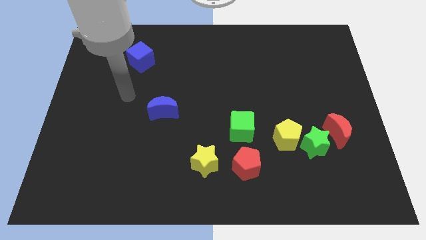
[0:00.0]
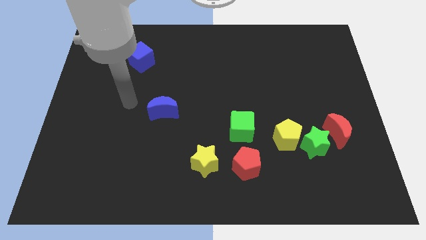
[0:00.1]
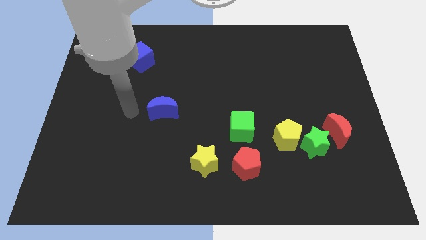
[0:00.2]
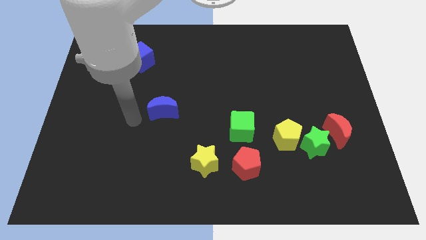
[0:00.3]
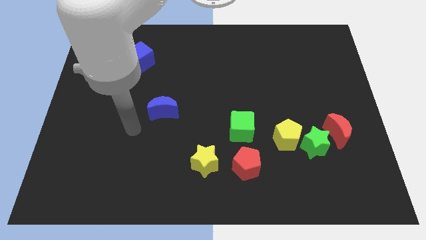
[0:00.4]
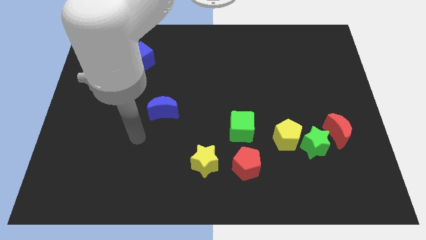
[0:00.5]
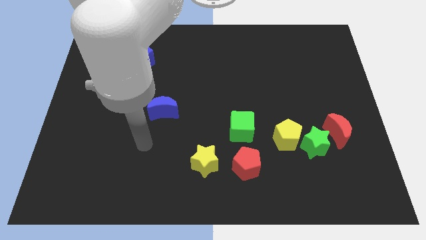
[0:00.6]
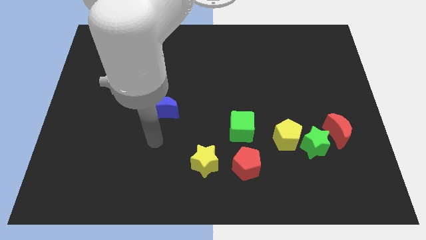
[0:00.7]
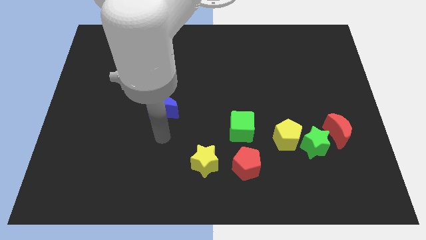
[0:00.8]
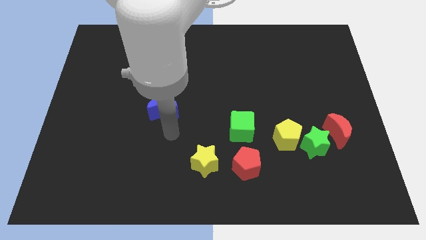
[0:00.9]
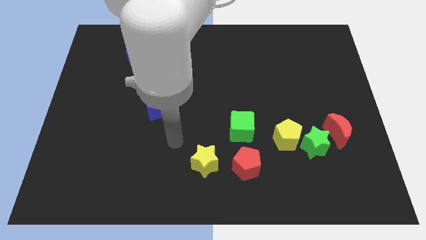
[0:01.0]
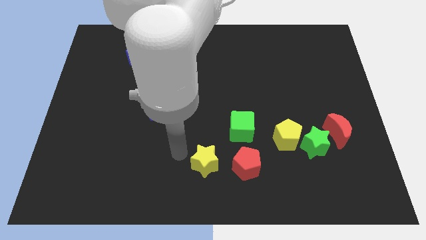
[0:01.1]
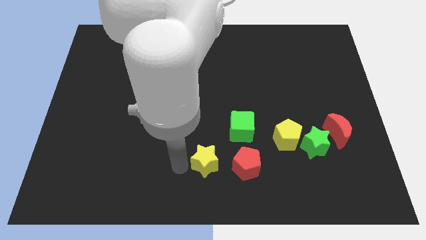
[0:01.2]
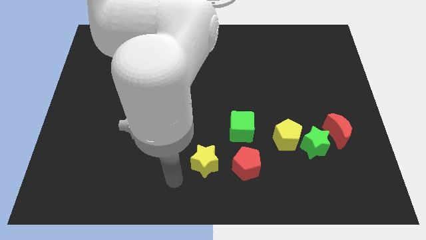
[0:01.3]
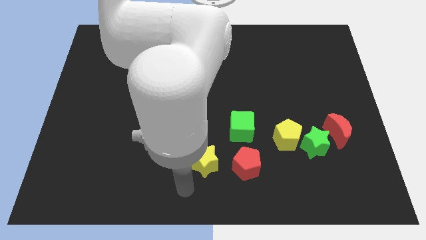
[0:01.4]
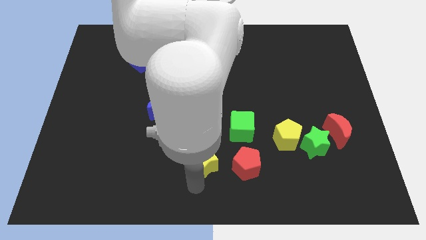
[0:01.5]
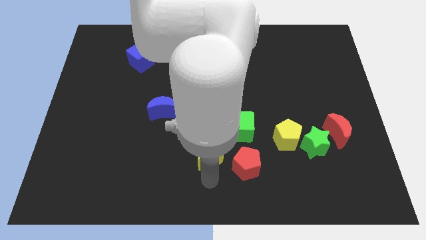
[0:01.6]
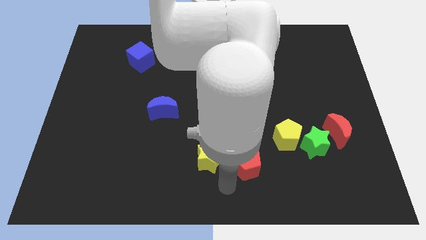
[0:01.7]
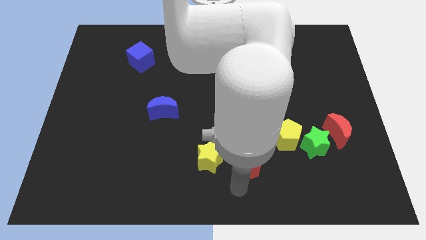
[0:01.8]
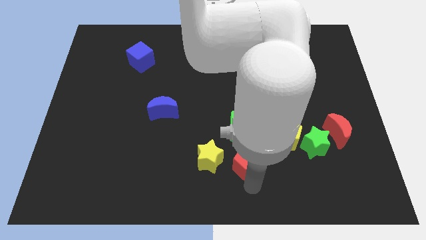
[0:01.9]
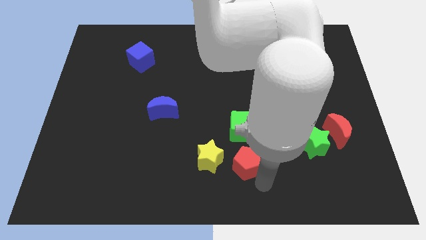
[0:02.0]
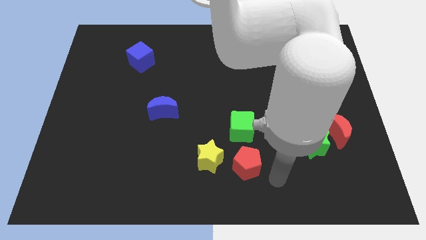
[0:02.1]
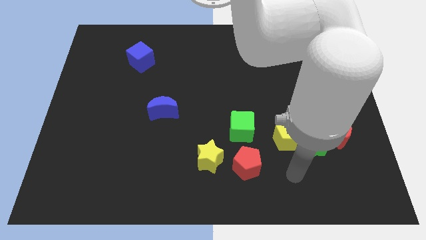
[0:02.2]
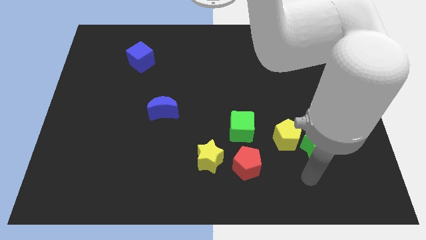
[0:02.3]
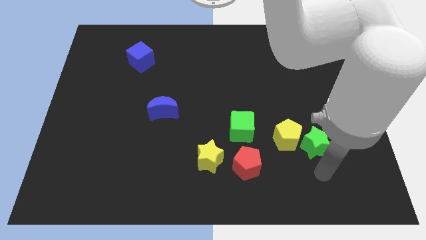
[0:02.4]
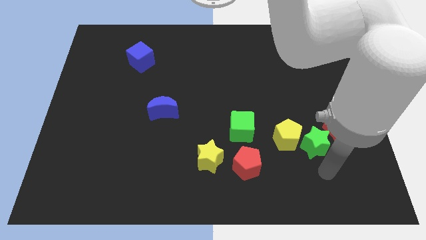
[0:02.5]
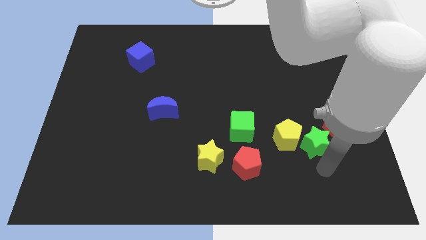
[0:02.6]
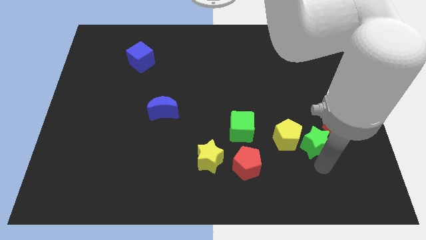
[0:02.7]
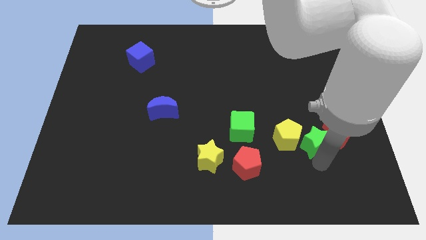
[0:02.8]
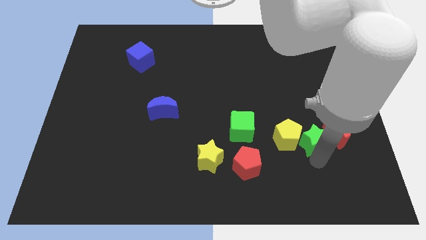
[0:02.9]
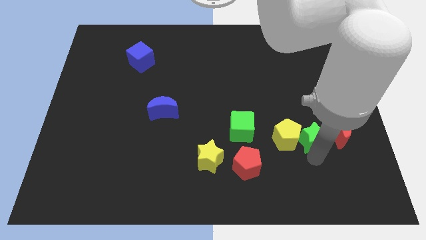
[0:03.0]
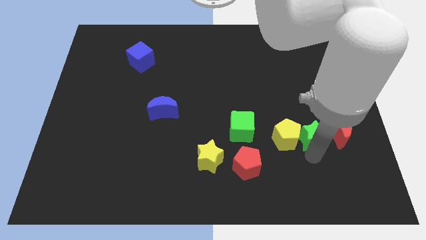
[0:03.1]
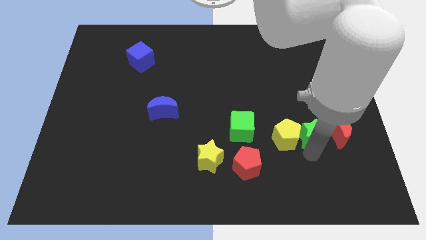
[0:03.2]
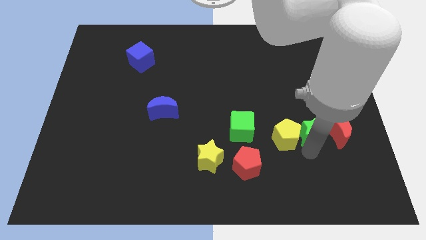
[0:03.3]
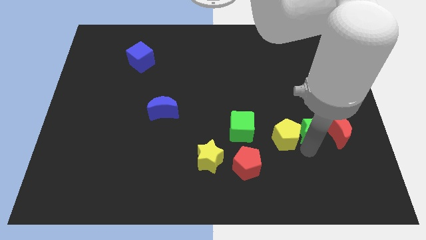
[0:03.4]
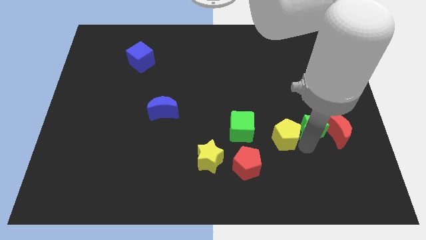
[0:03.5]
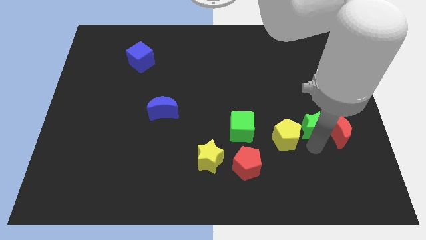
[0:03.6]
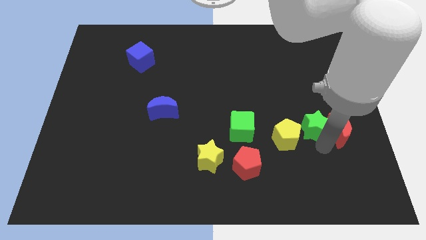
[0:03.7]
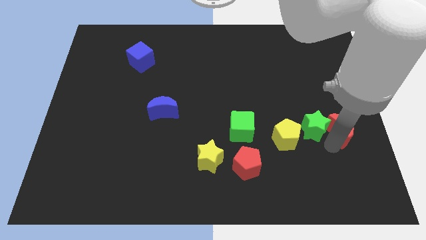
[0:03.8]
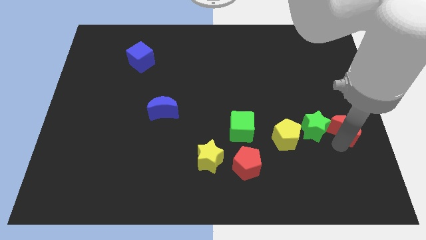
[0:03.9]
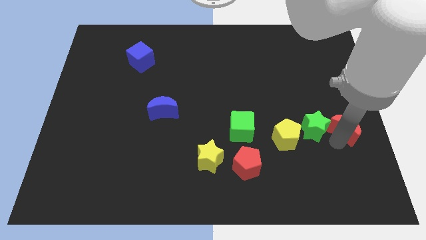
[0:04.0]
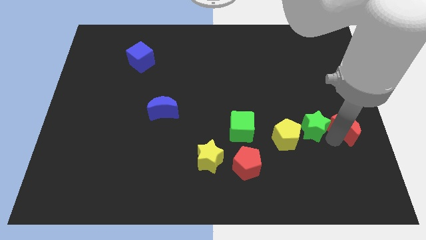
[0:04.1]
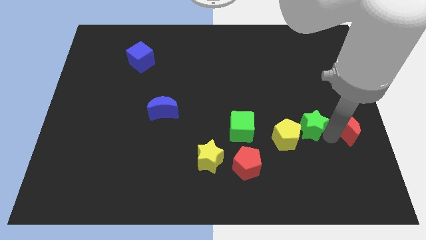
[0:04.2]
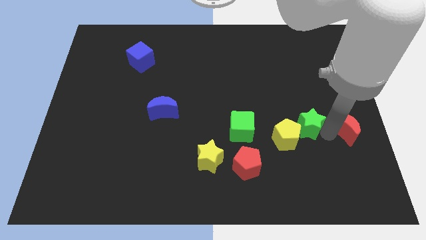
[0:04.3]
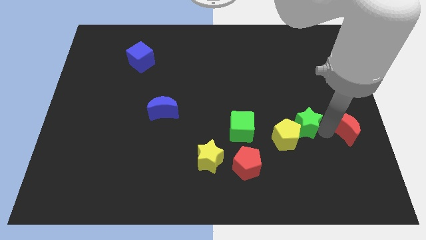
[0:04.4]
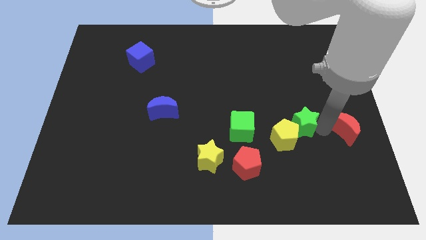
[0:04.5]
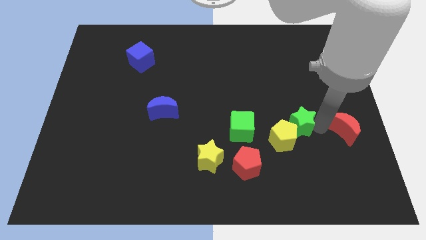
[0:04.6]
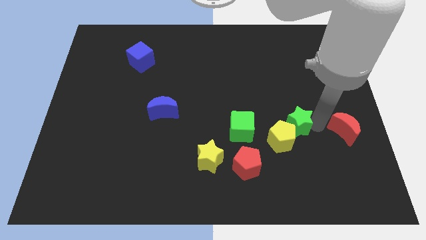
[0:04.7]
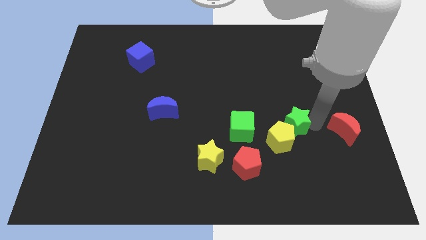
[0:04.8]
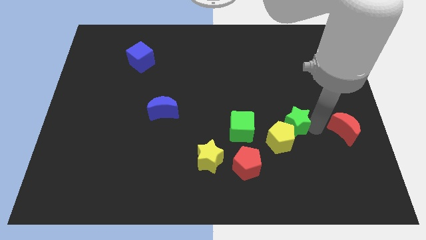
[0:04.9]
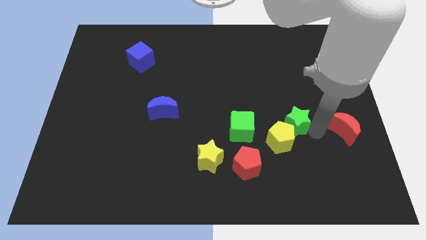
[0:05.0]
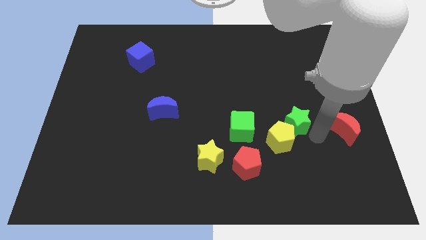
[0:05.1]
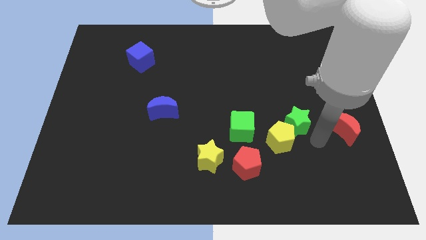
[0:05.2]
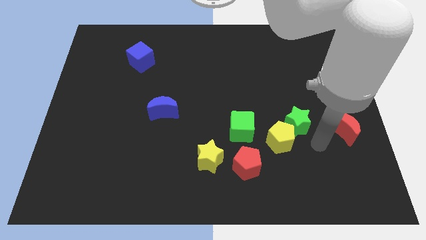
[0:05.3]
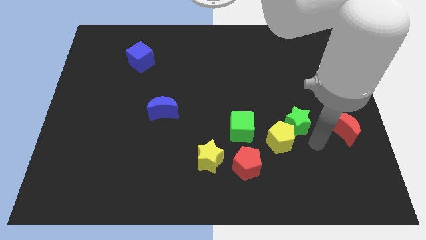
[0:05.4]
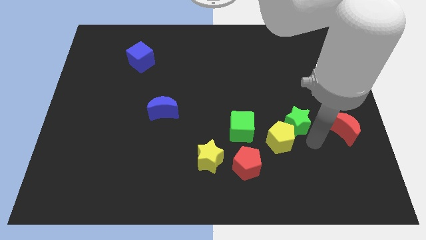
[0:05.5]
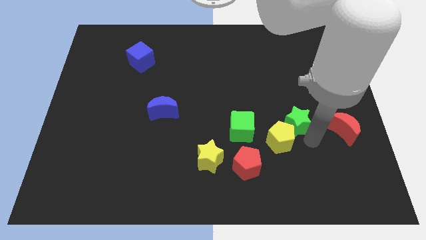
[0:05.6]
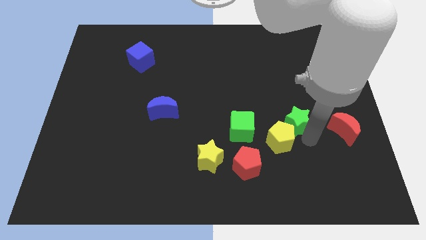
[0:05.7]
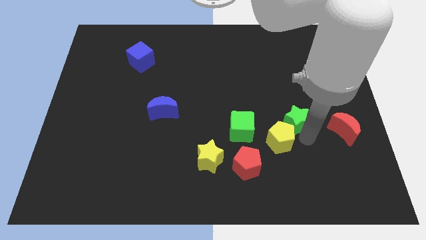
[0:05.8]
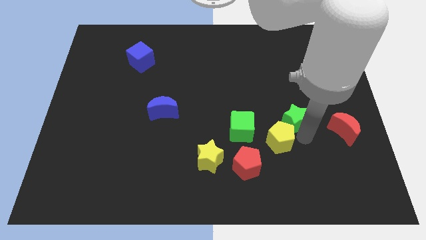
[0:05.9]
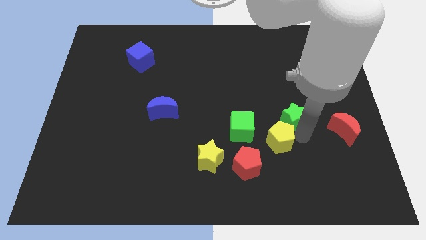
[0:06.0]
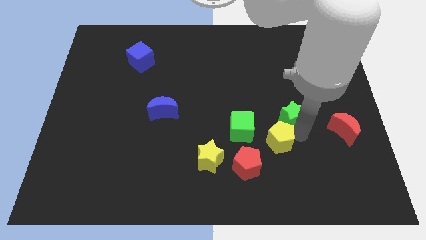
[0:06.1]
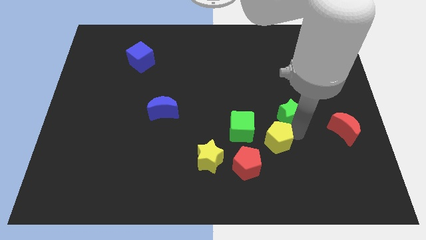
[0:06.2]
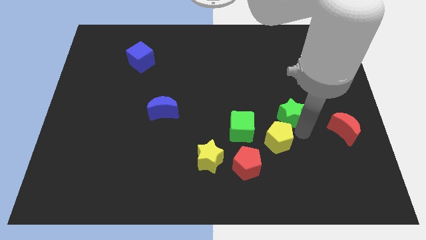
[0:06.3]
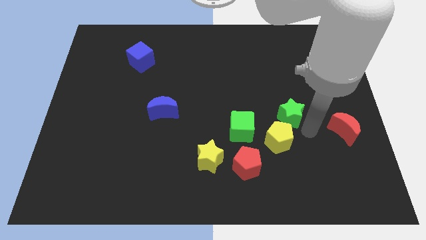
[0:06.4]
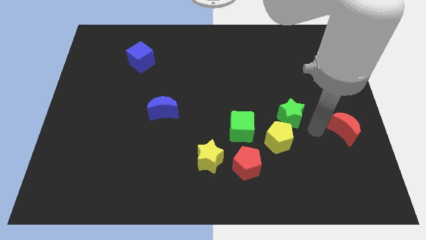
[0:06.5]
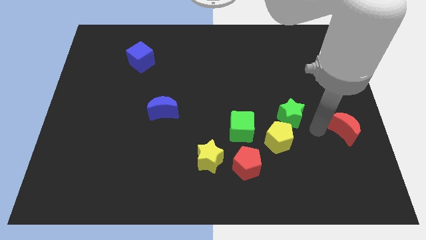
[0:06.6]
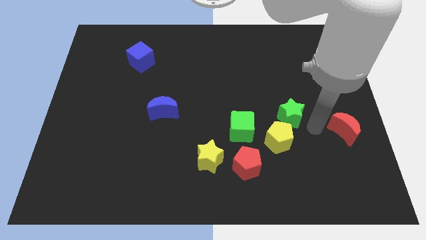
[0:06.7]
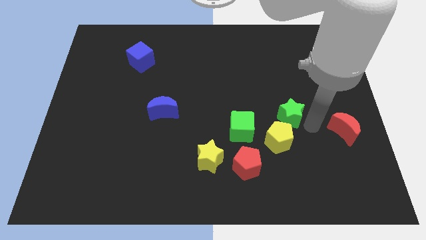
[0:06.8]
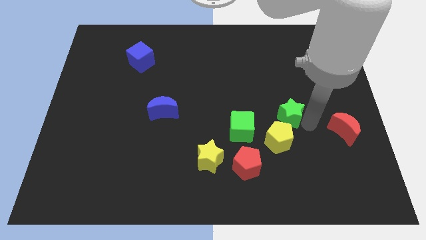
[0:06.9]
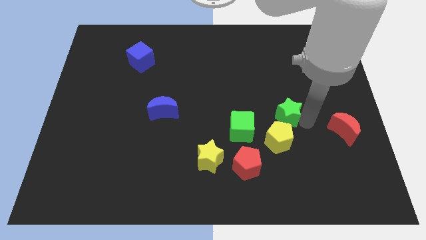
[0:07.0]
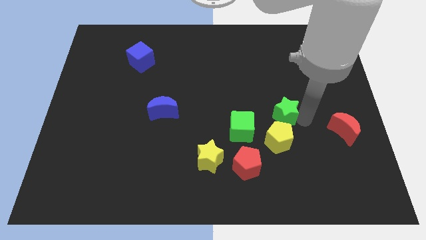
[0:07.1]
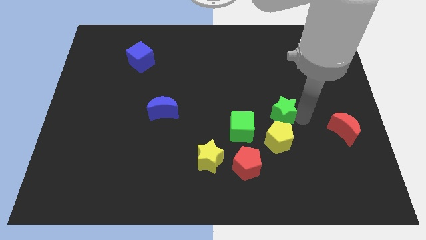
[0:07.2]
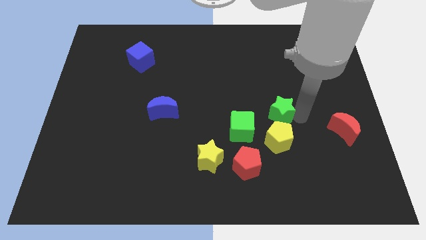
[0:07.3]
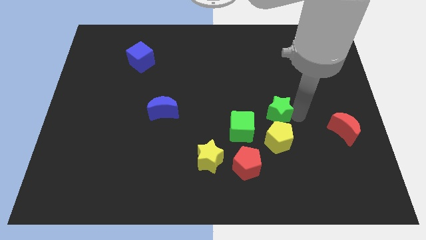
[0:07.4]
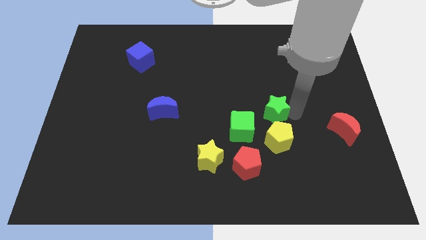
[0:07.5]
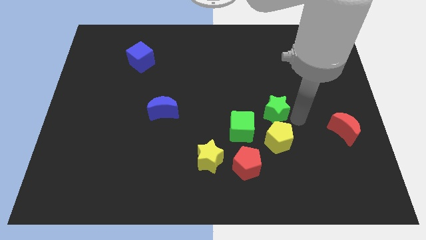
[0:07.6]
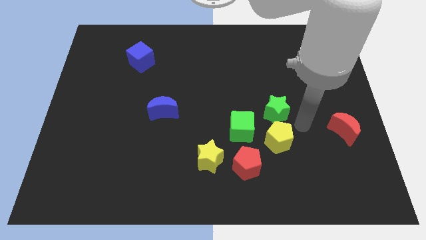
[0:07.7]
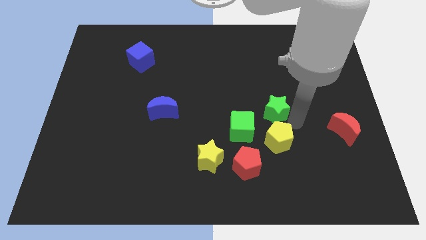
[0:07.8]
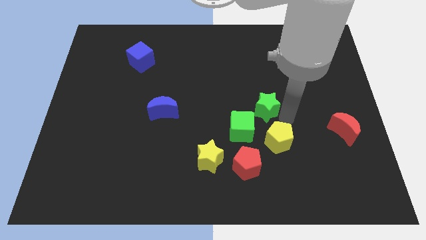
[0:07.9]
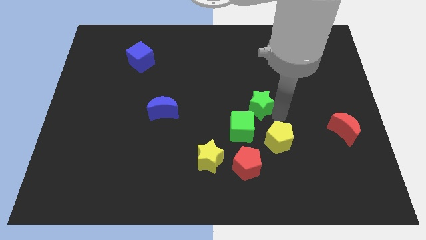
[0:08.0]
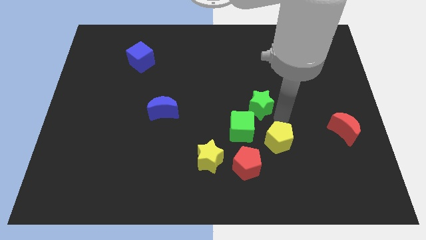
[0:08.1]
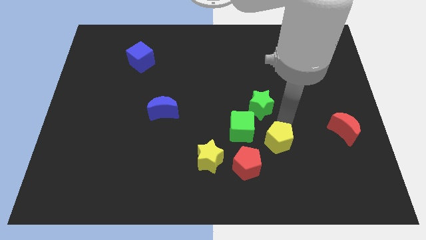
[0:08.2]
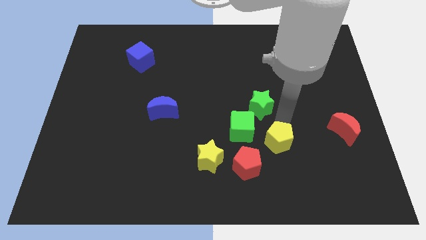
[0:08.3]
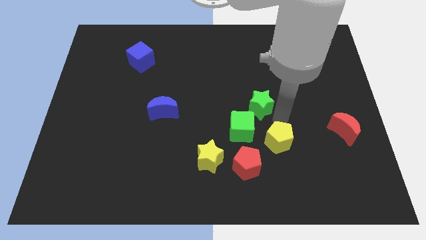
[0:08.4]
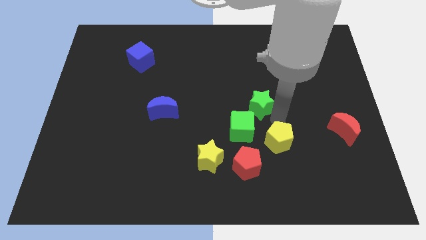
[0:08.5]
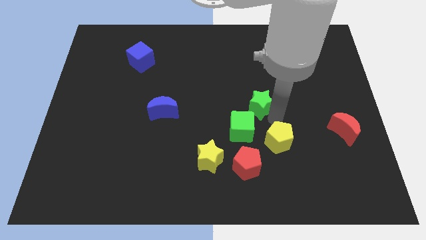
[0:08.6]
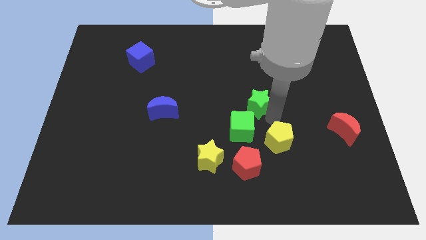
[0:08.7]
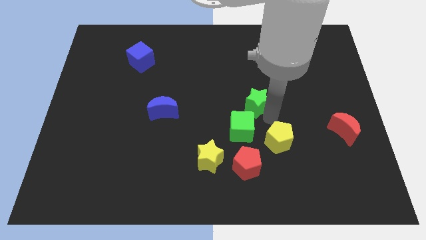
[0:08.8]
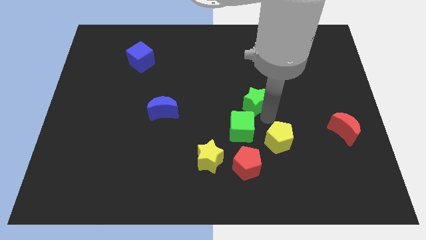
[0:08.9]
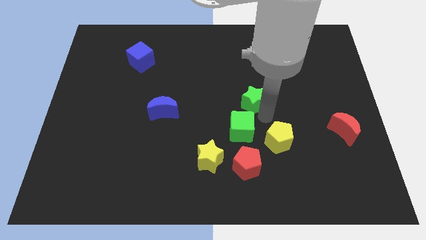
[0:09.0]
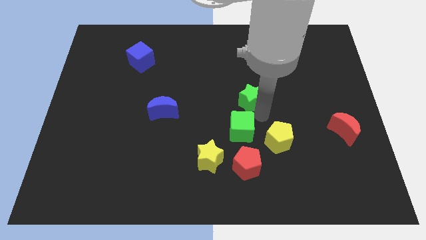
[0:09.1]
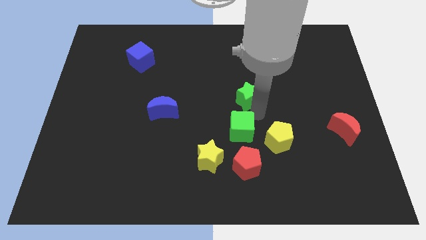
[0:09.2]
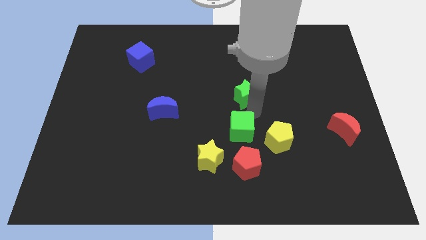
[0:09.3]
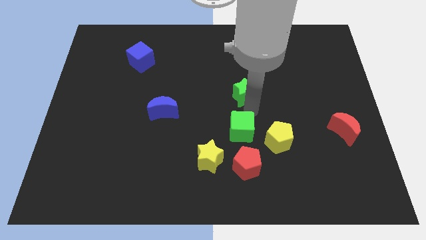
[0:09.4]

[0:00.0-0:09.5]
slide the green star diagonally upwards and to the left
